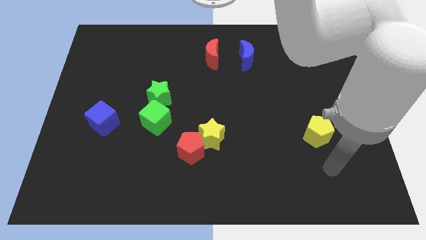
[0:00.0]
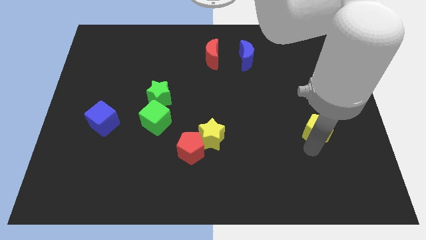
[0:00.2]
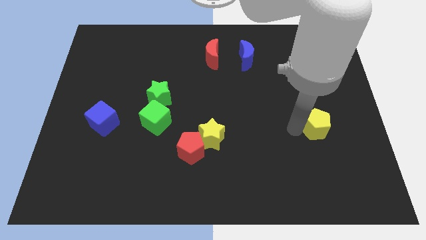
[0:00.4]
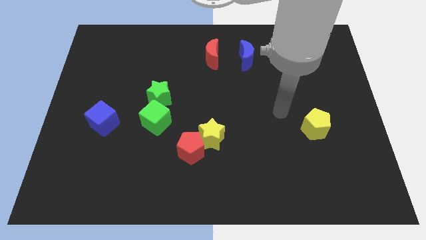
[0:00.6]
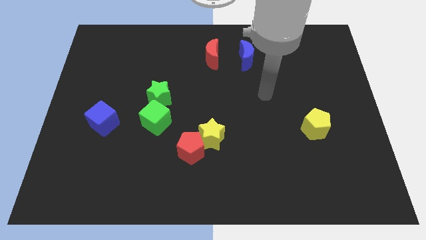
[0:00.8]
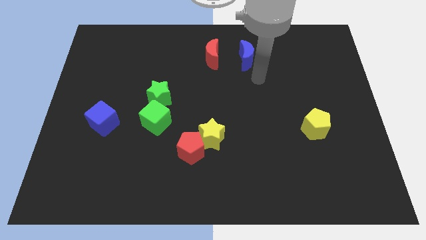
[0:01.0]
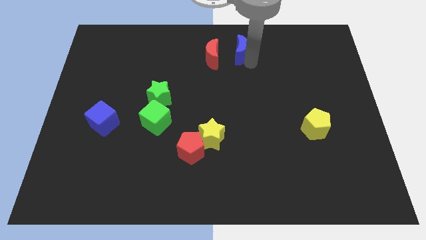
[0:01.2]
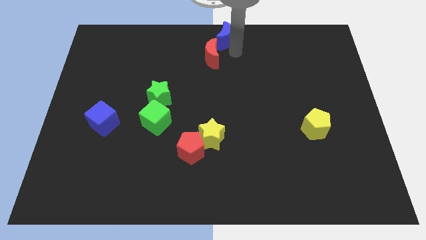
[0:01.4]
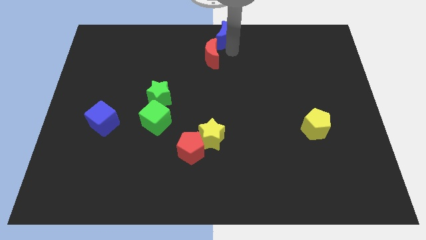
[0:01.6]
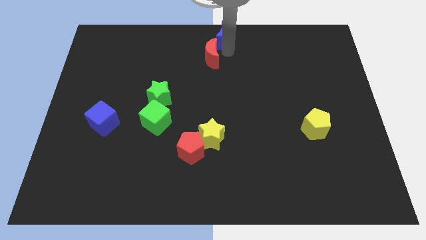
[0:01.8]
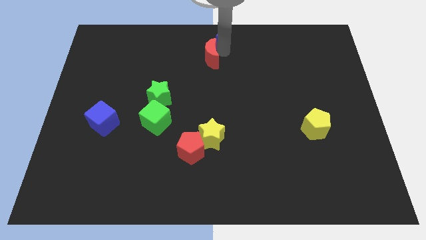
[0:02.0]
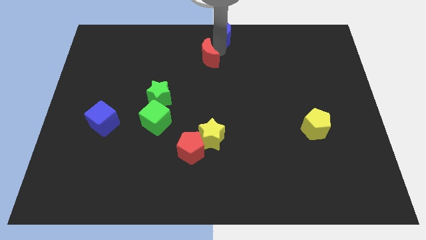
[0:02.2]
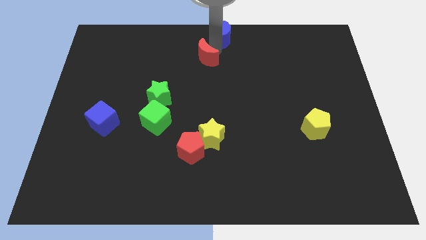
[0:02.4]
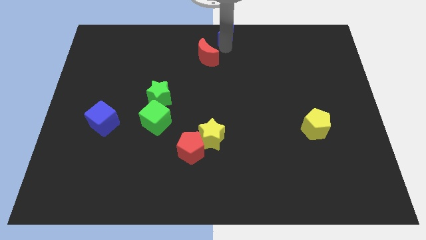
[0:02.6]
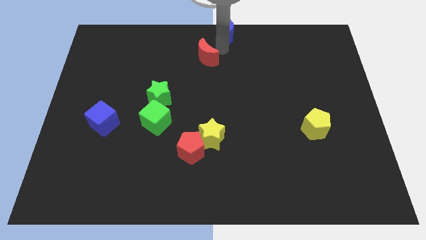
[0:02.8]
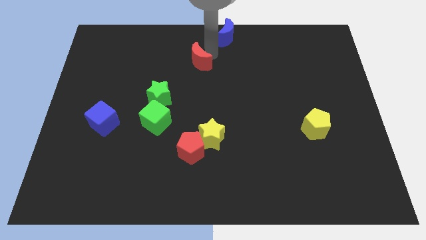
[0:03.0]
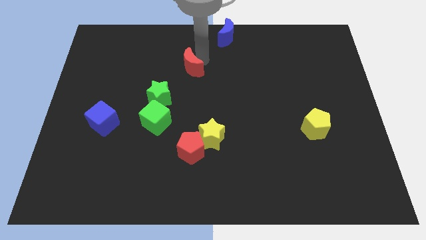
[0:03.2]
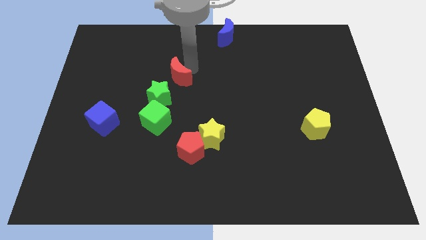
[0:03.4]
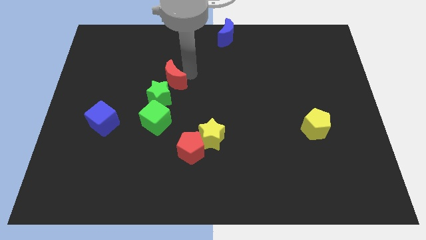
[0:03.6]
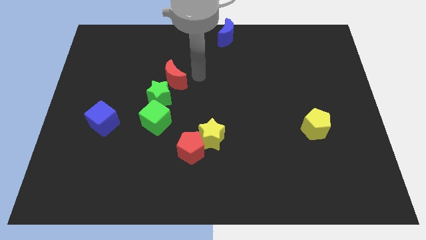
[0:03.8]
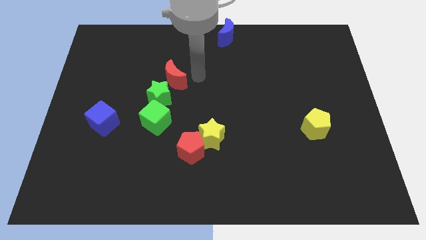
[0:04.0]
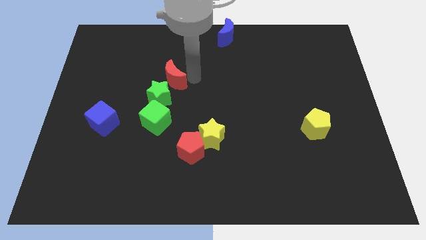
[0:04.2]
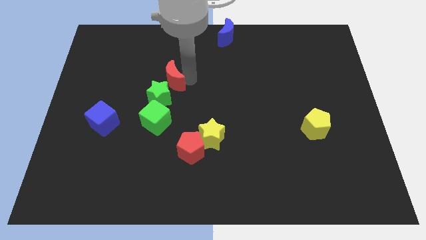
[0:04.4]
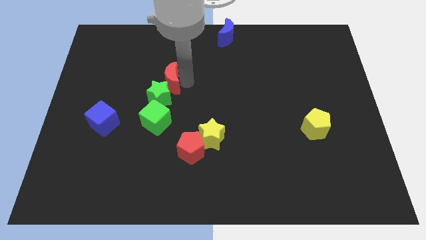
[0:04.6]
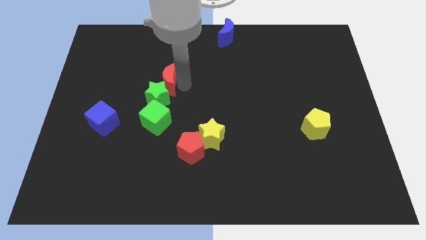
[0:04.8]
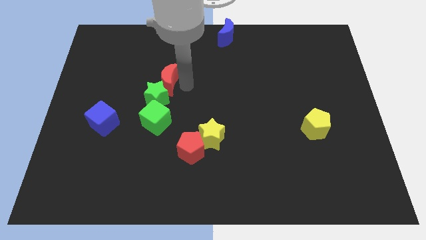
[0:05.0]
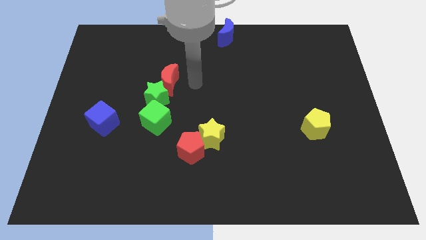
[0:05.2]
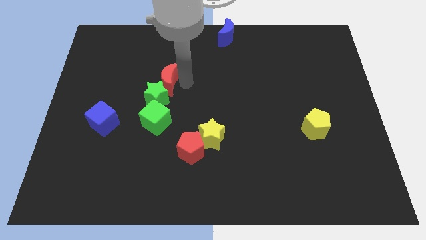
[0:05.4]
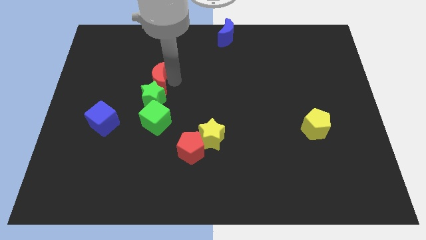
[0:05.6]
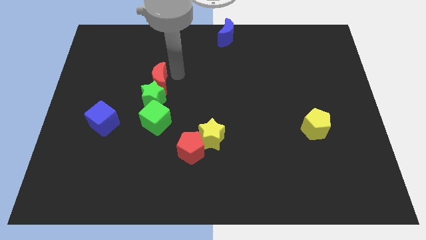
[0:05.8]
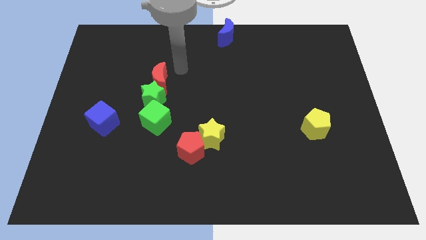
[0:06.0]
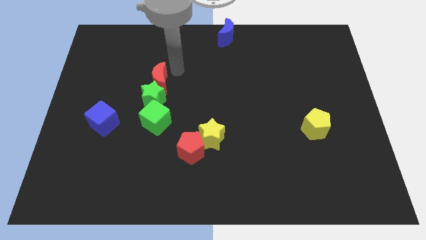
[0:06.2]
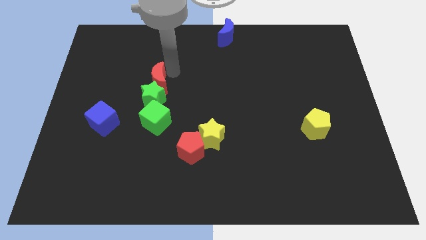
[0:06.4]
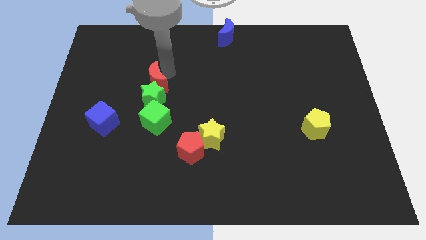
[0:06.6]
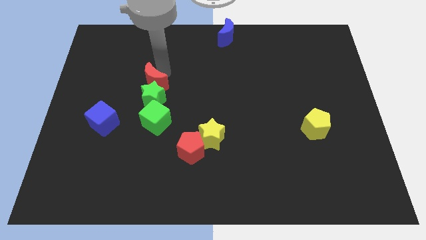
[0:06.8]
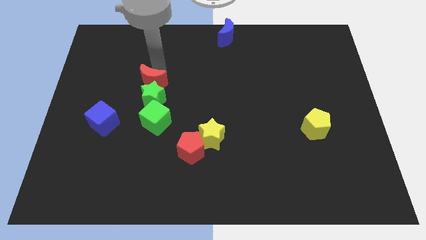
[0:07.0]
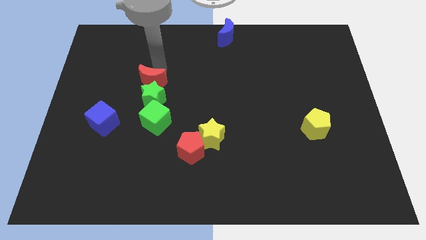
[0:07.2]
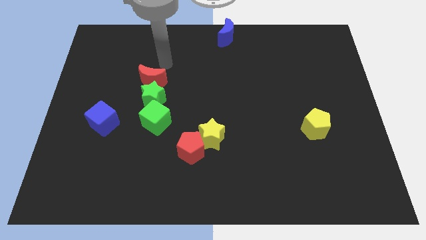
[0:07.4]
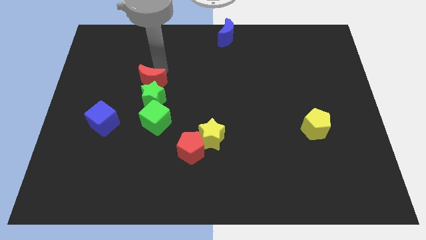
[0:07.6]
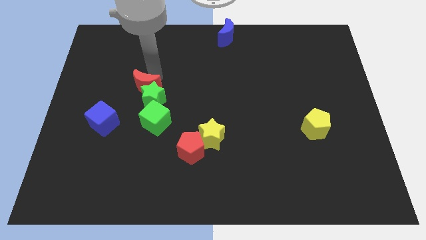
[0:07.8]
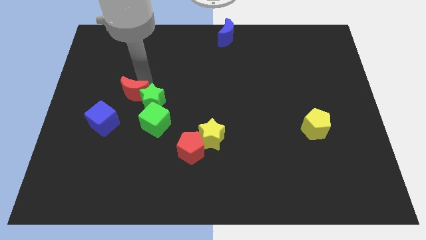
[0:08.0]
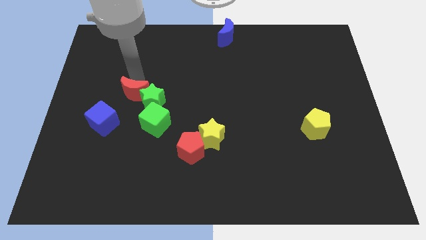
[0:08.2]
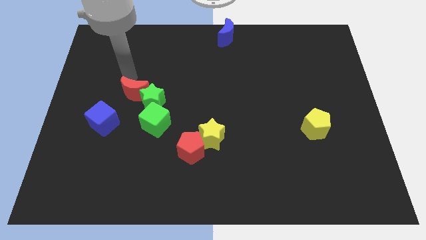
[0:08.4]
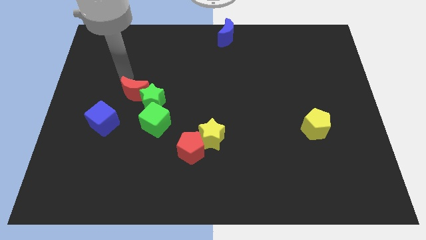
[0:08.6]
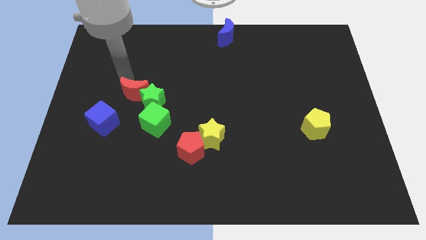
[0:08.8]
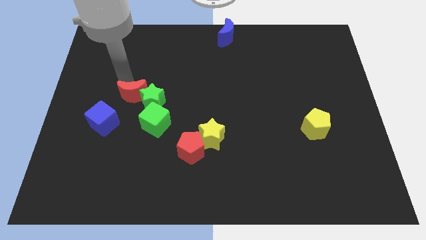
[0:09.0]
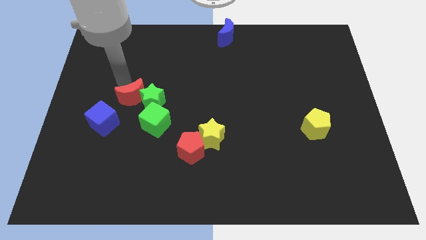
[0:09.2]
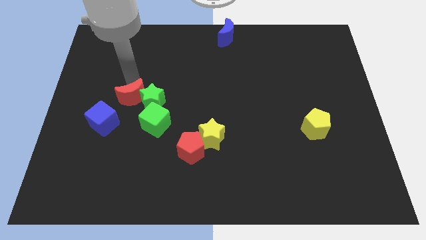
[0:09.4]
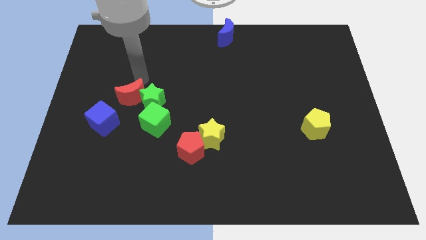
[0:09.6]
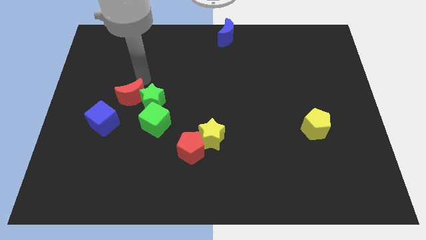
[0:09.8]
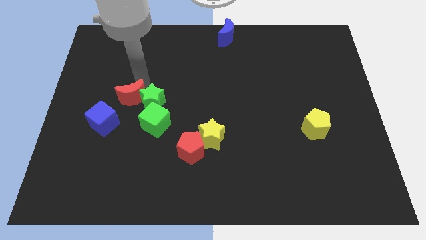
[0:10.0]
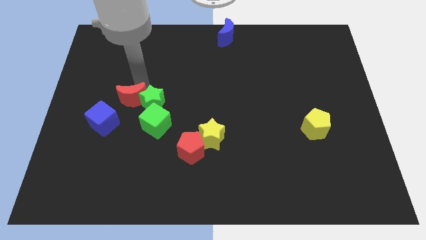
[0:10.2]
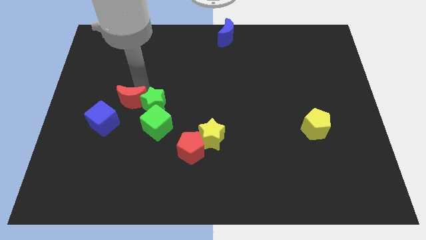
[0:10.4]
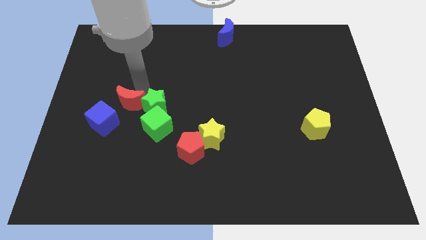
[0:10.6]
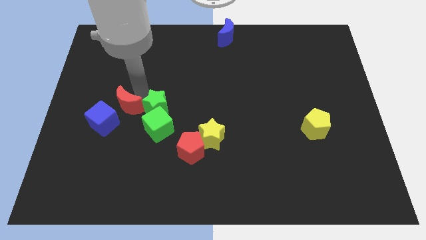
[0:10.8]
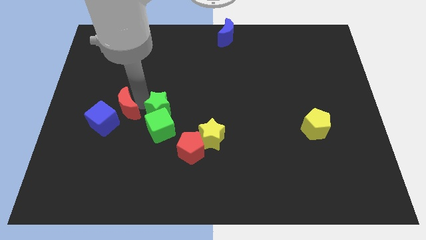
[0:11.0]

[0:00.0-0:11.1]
slide the red moon close to the blue cube

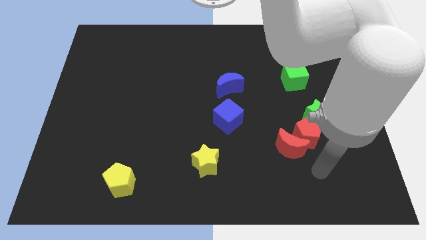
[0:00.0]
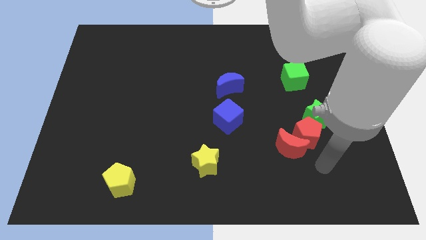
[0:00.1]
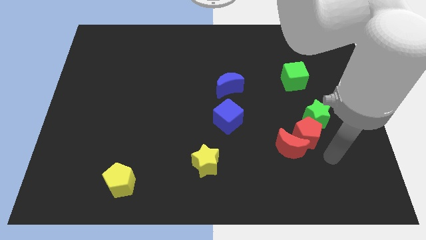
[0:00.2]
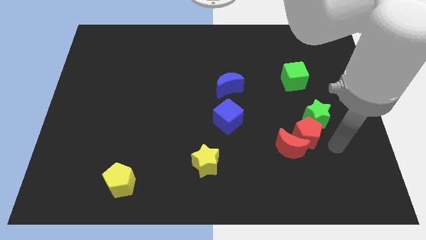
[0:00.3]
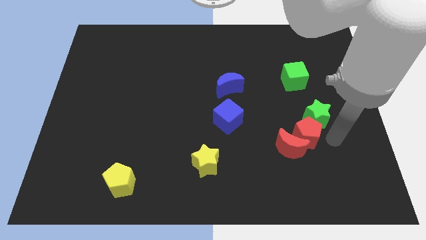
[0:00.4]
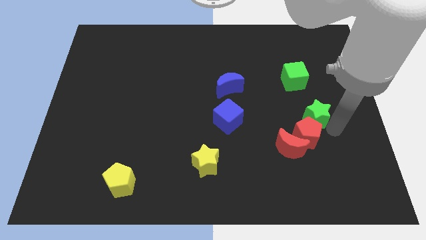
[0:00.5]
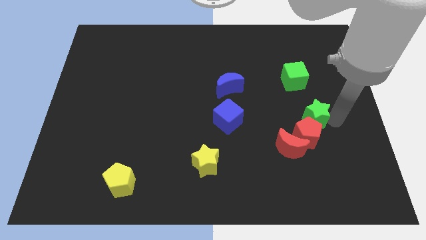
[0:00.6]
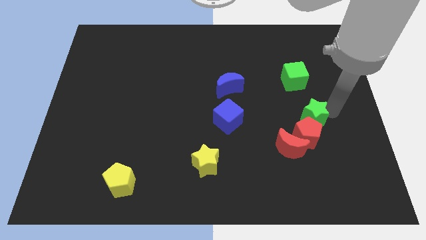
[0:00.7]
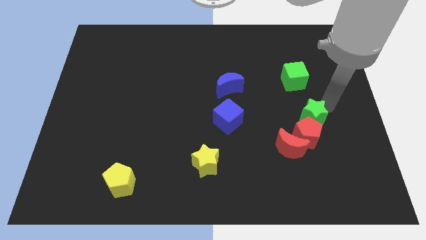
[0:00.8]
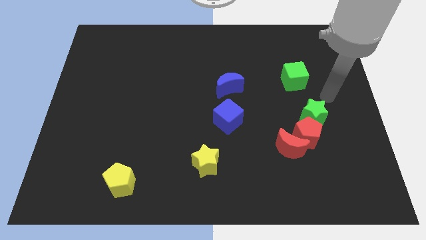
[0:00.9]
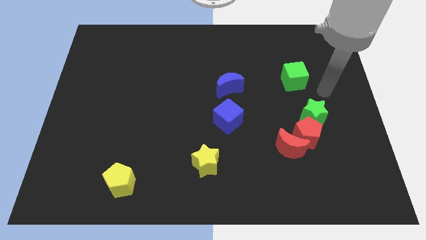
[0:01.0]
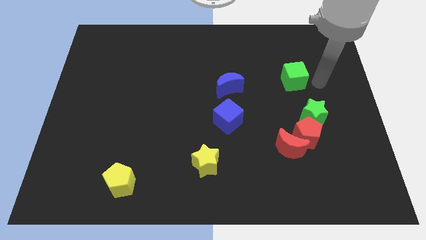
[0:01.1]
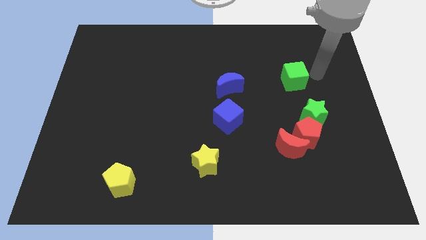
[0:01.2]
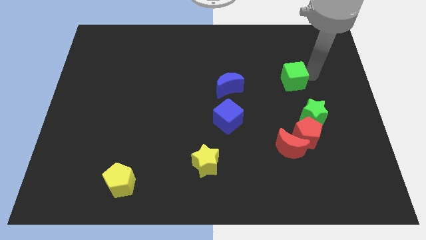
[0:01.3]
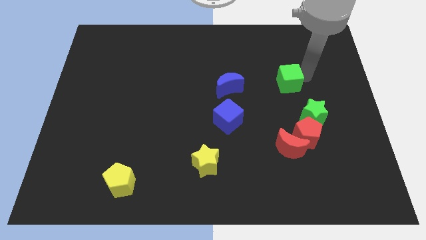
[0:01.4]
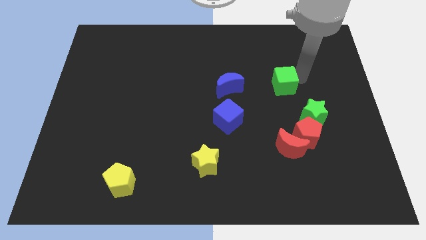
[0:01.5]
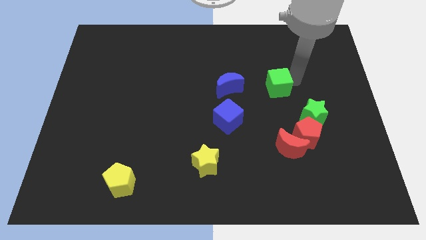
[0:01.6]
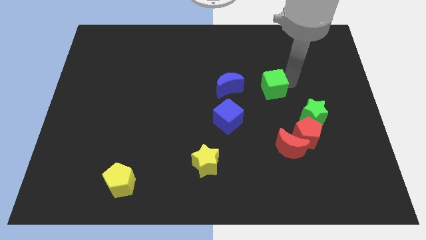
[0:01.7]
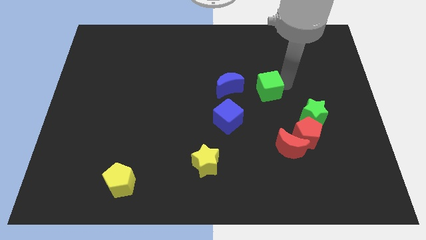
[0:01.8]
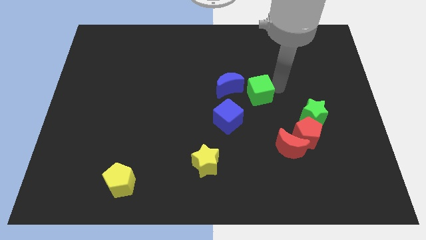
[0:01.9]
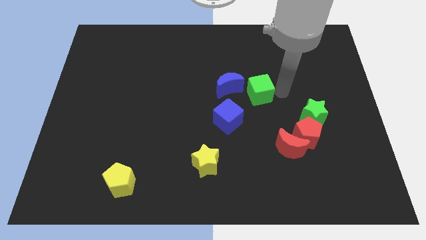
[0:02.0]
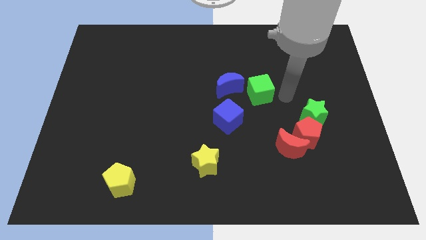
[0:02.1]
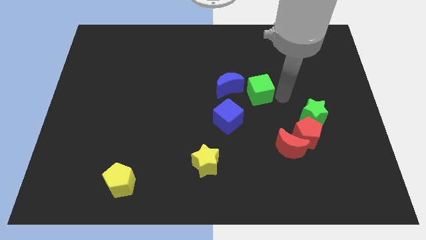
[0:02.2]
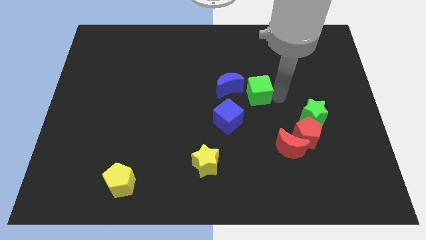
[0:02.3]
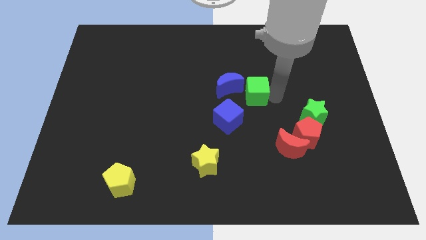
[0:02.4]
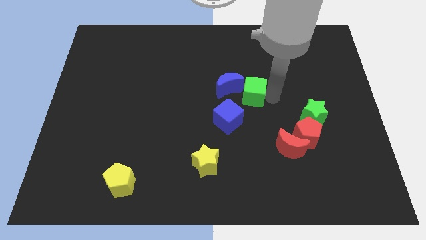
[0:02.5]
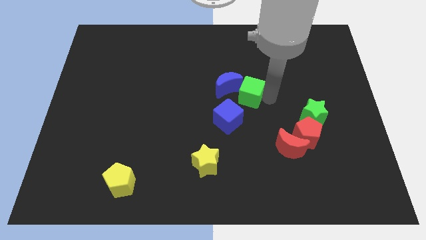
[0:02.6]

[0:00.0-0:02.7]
move the green cube close to the blue moon
